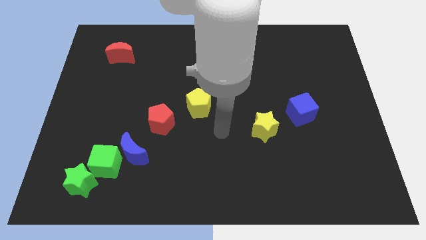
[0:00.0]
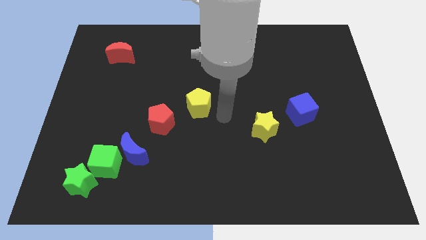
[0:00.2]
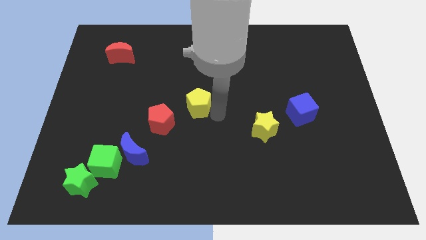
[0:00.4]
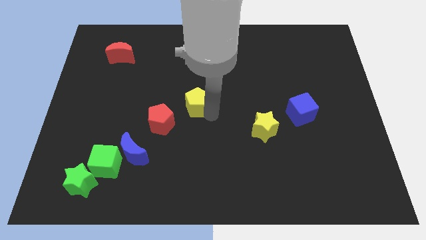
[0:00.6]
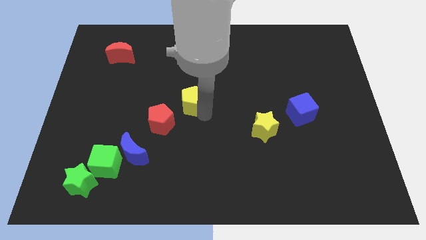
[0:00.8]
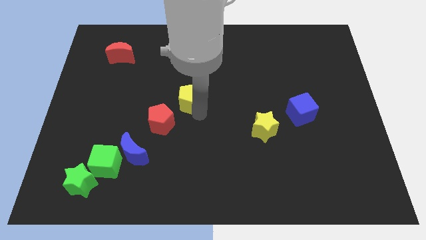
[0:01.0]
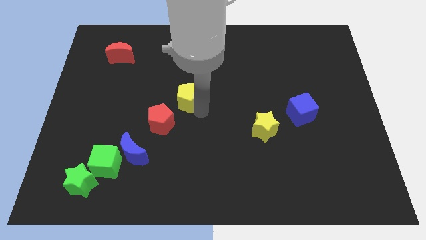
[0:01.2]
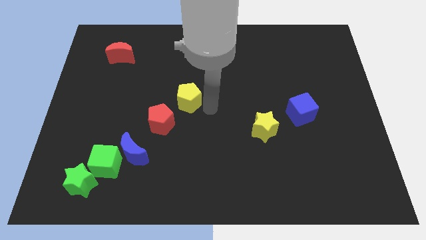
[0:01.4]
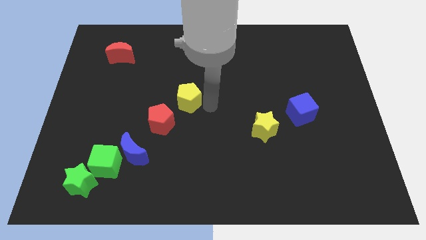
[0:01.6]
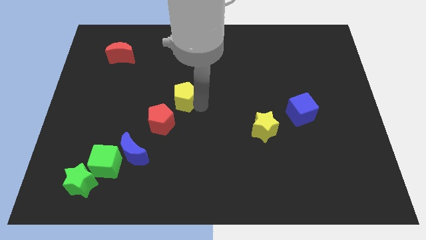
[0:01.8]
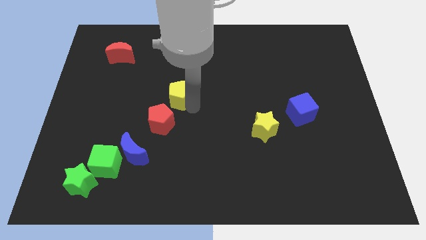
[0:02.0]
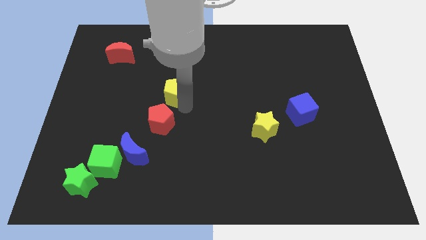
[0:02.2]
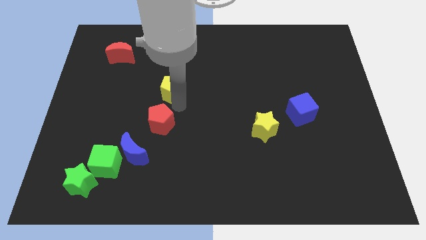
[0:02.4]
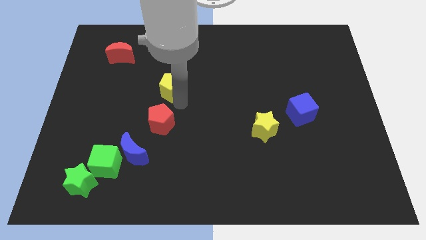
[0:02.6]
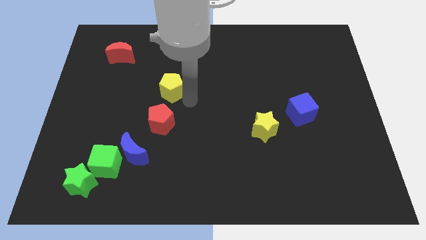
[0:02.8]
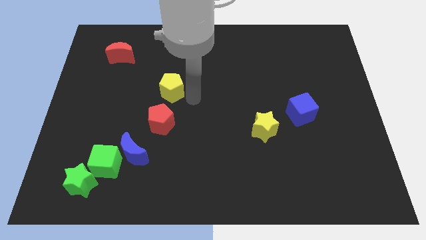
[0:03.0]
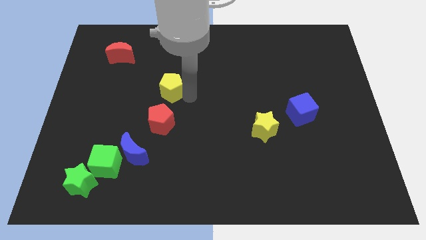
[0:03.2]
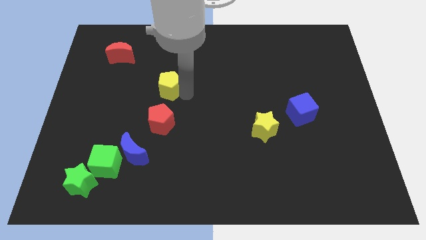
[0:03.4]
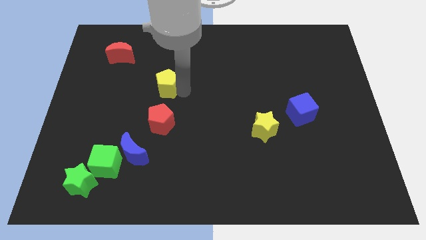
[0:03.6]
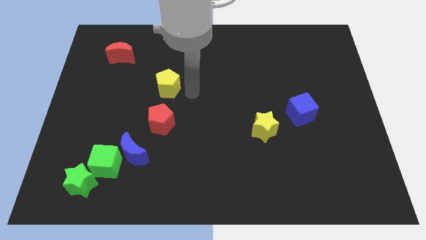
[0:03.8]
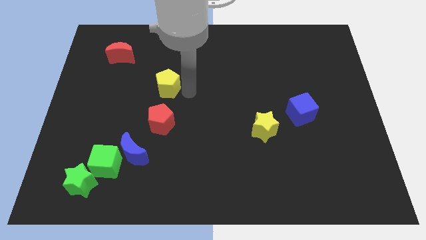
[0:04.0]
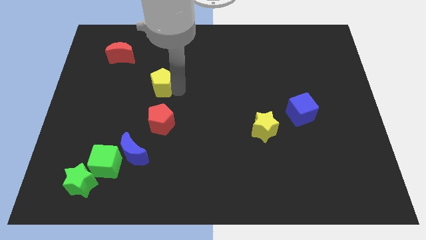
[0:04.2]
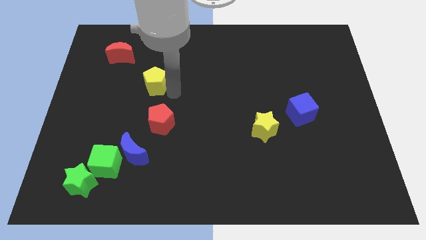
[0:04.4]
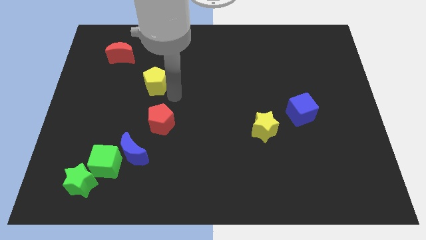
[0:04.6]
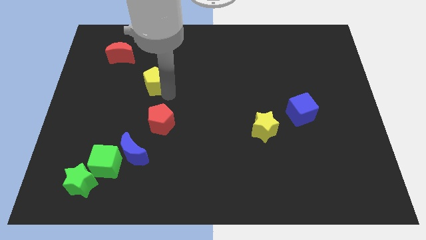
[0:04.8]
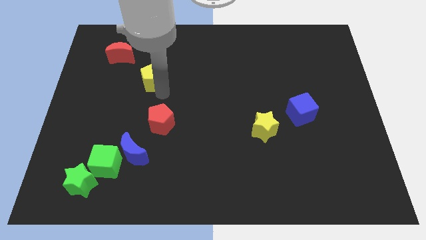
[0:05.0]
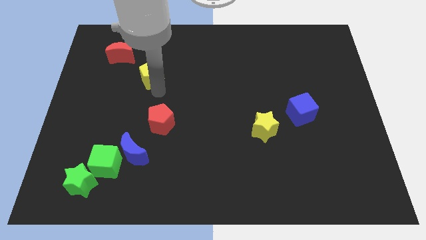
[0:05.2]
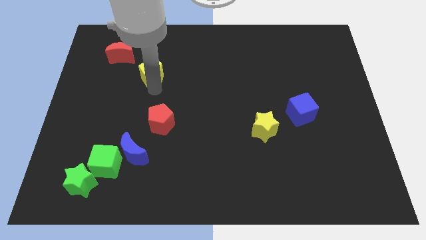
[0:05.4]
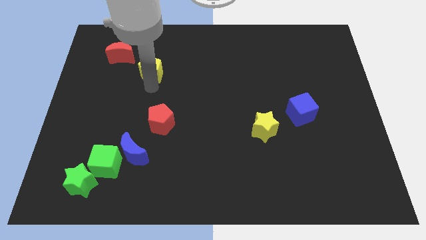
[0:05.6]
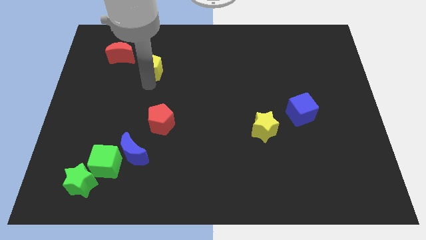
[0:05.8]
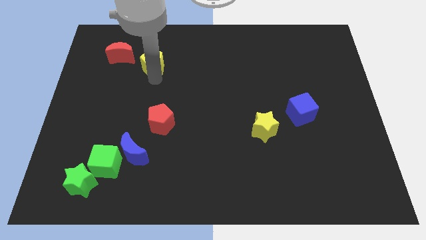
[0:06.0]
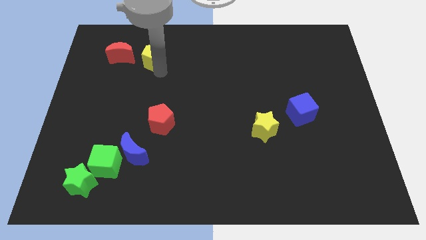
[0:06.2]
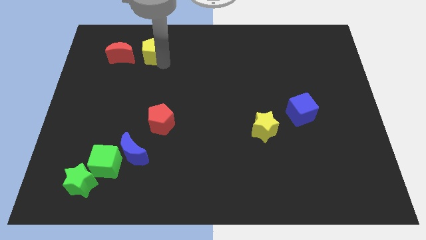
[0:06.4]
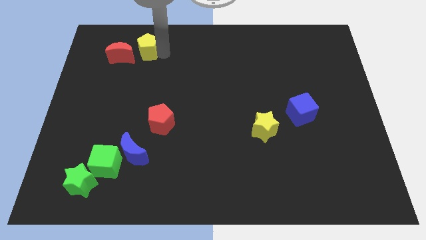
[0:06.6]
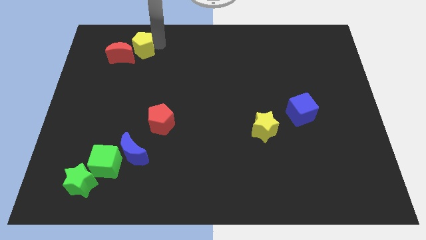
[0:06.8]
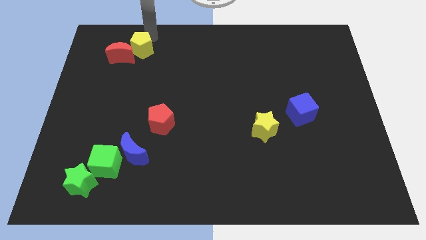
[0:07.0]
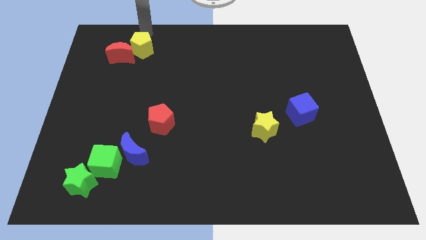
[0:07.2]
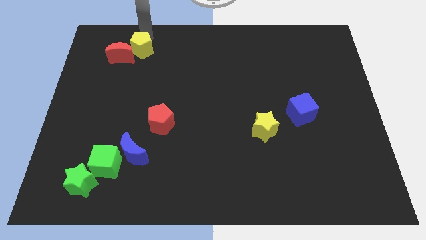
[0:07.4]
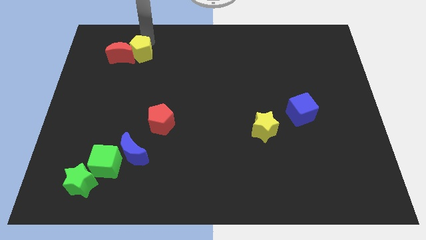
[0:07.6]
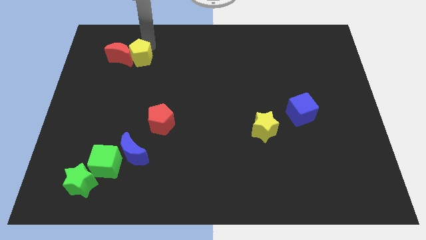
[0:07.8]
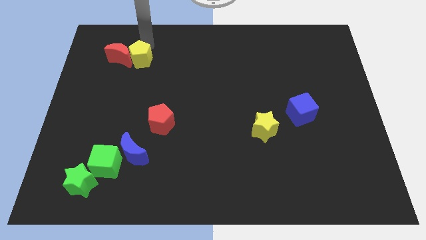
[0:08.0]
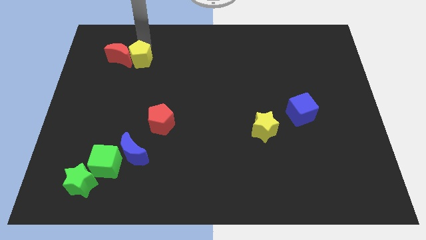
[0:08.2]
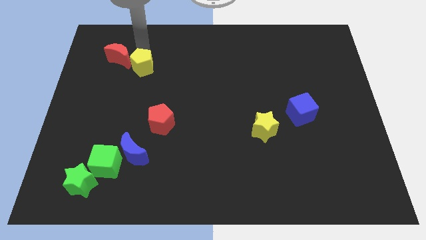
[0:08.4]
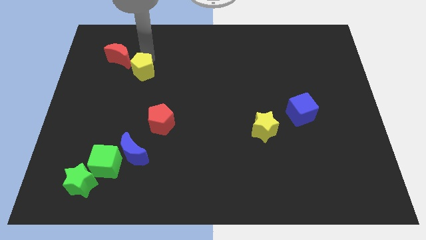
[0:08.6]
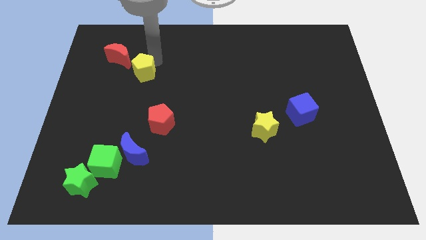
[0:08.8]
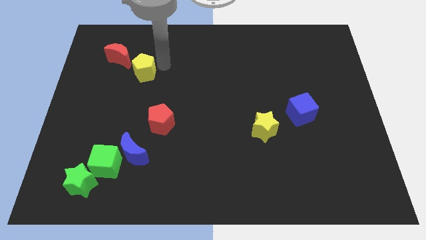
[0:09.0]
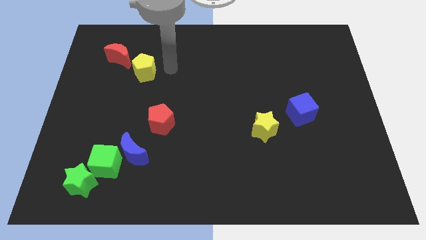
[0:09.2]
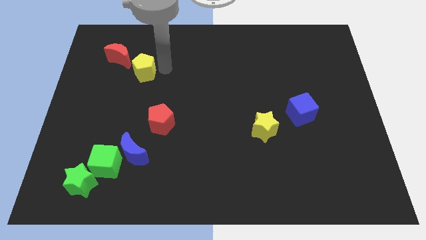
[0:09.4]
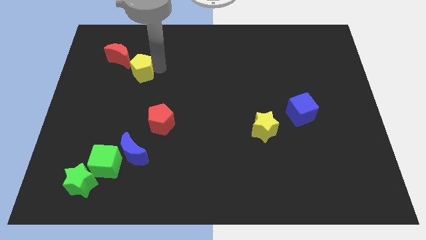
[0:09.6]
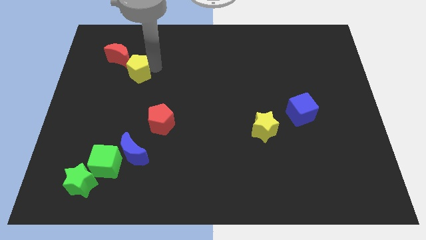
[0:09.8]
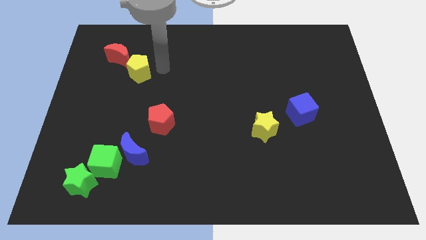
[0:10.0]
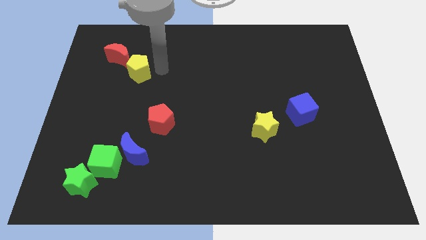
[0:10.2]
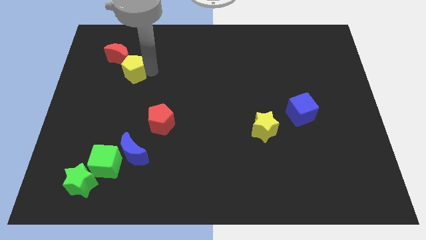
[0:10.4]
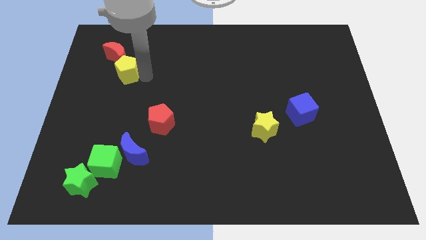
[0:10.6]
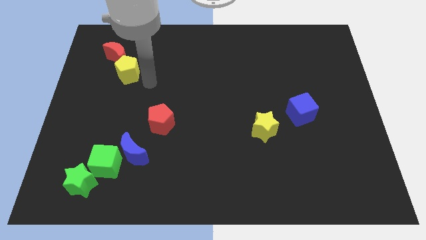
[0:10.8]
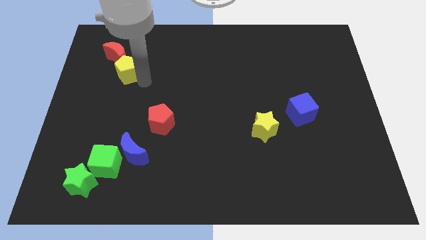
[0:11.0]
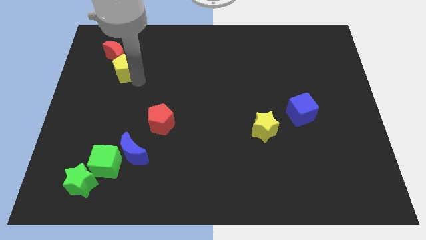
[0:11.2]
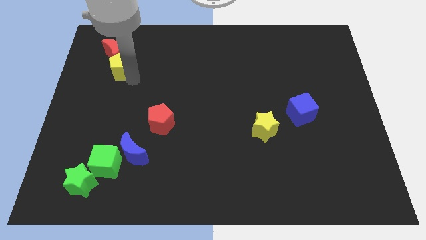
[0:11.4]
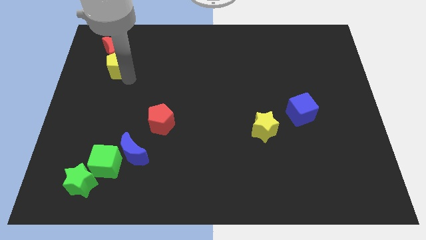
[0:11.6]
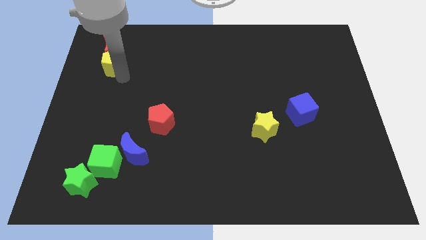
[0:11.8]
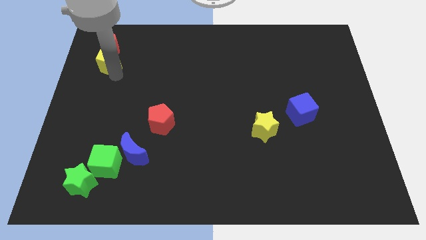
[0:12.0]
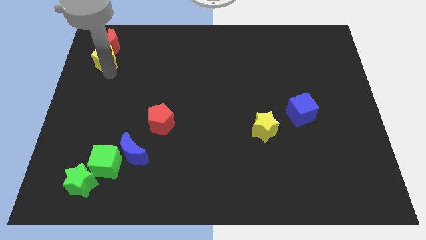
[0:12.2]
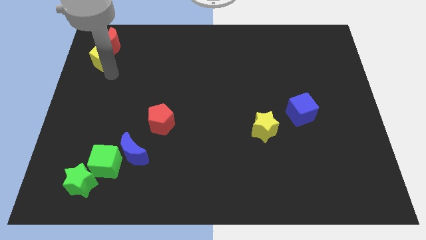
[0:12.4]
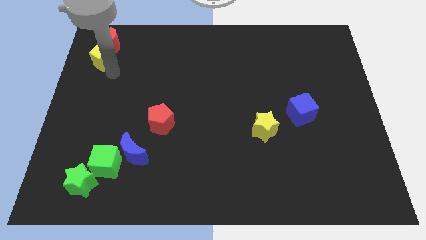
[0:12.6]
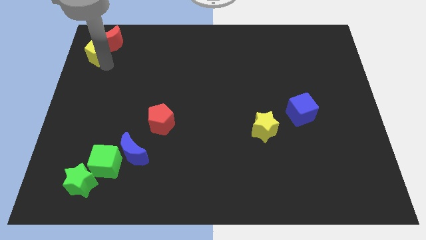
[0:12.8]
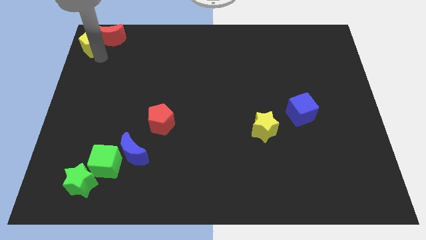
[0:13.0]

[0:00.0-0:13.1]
put the yellow pentagon to the top left of the board

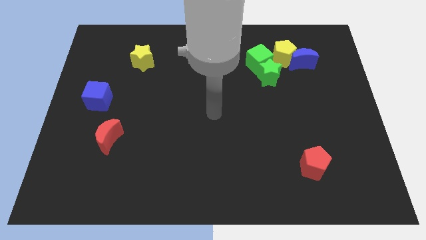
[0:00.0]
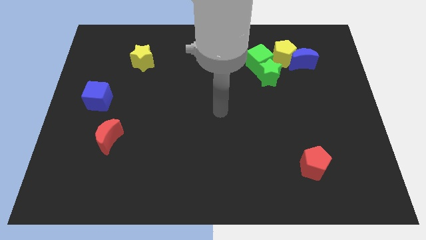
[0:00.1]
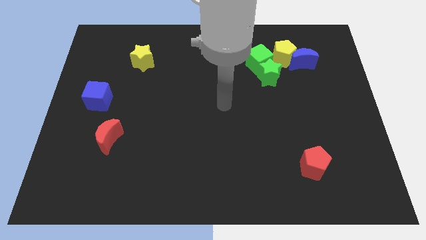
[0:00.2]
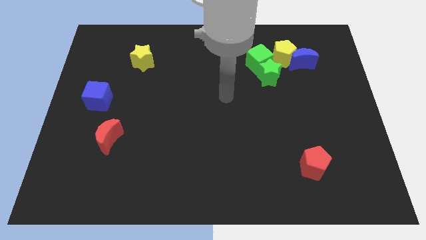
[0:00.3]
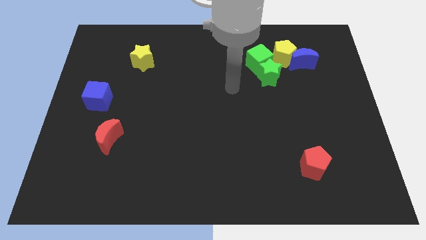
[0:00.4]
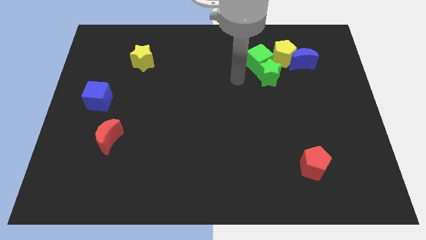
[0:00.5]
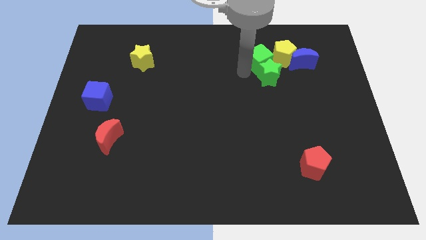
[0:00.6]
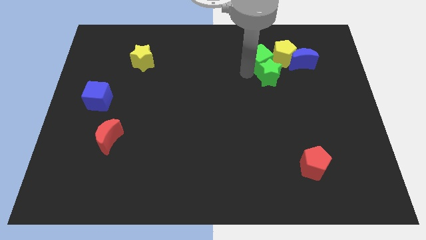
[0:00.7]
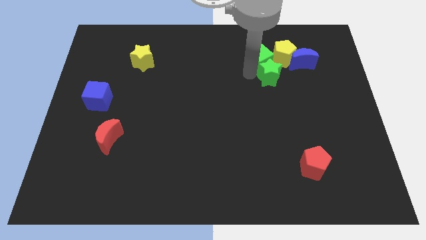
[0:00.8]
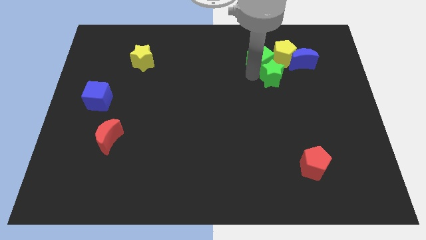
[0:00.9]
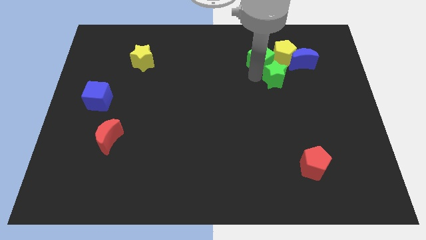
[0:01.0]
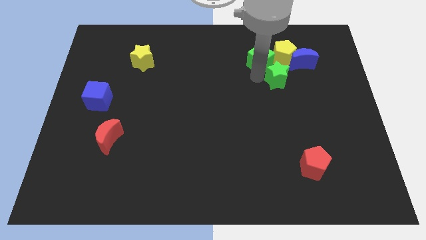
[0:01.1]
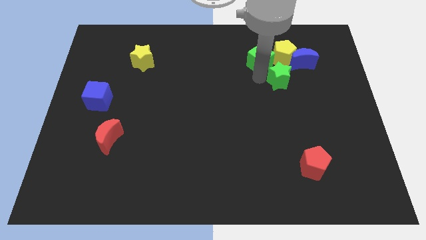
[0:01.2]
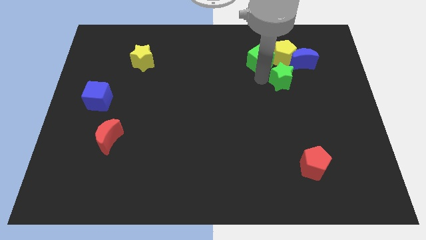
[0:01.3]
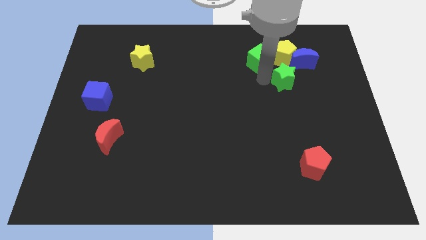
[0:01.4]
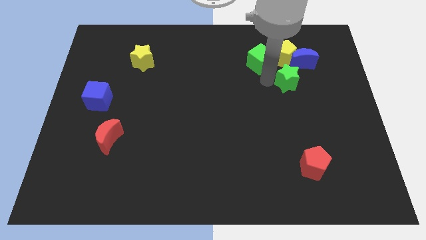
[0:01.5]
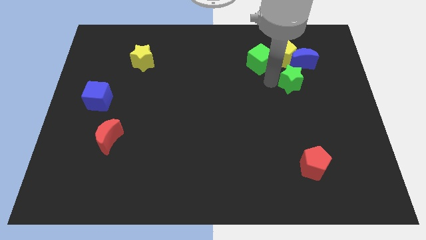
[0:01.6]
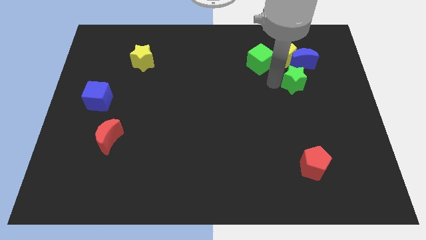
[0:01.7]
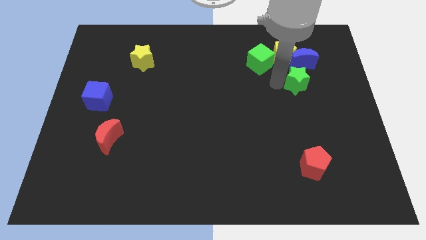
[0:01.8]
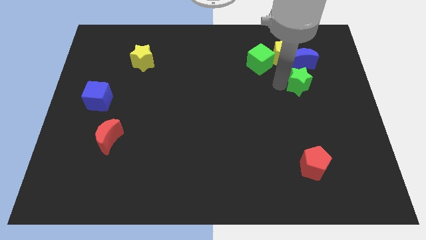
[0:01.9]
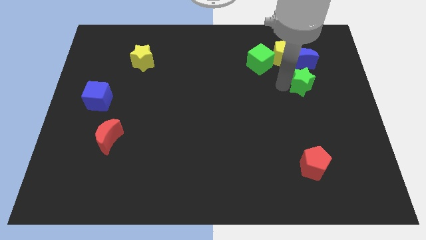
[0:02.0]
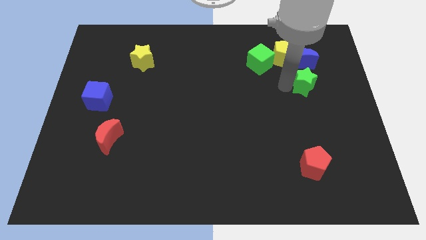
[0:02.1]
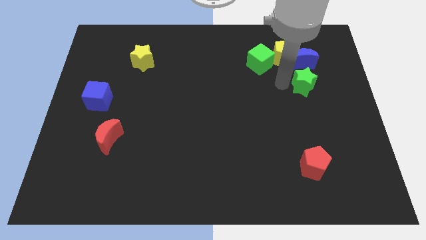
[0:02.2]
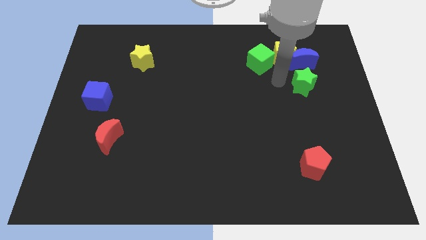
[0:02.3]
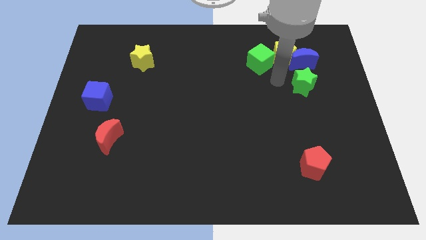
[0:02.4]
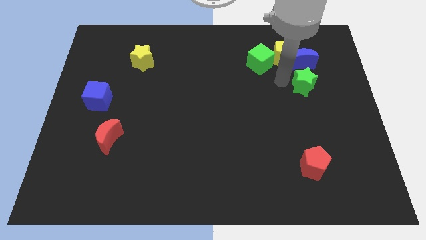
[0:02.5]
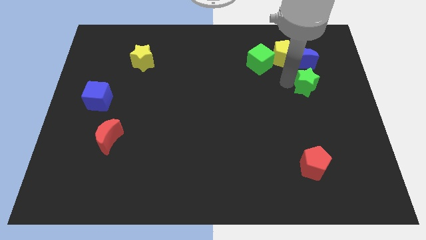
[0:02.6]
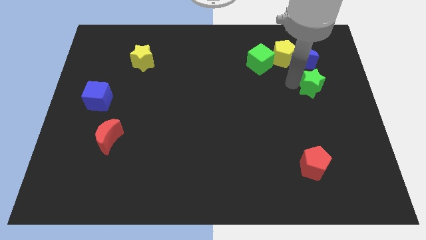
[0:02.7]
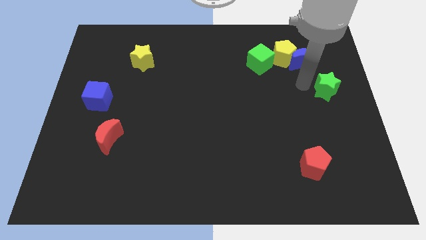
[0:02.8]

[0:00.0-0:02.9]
push the green star to the right side of the board
